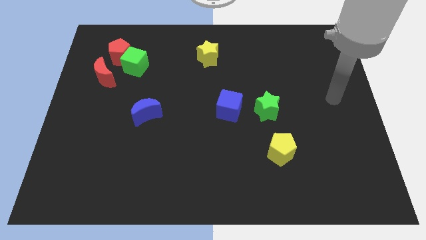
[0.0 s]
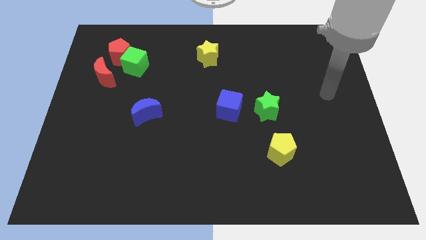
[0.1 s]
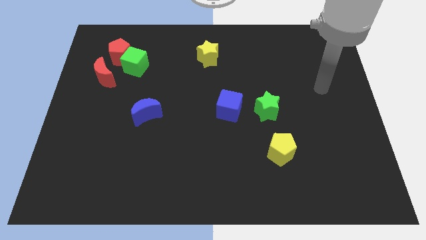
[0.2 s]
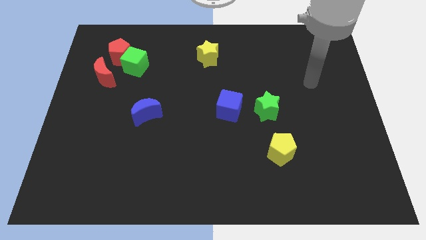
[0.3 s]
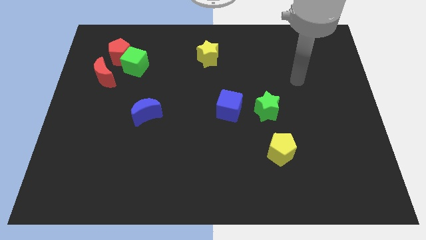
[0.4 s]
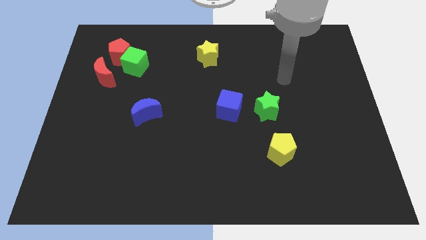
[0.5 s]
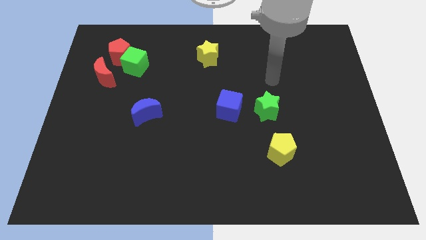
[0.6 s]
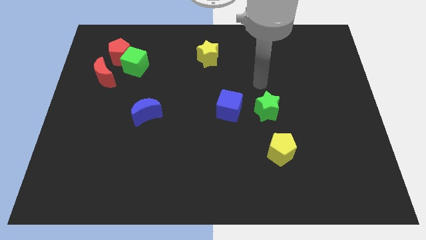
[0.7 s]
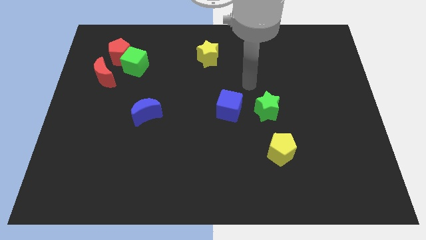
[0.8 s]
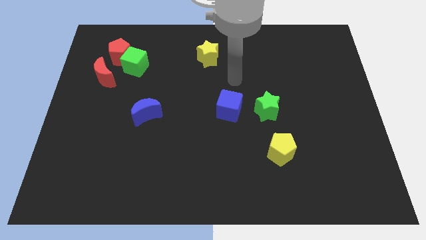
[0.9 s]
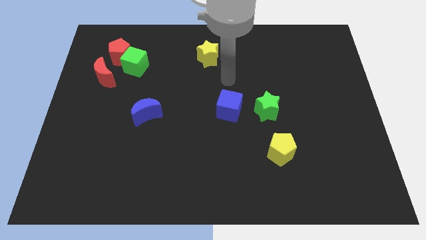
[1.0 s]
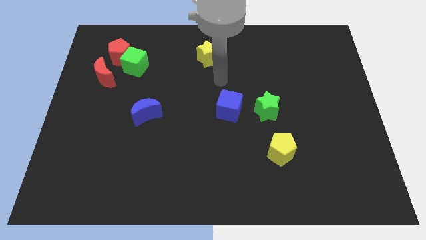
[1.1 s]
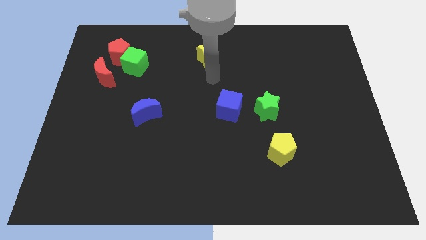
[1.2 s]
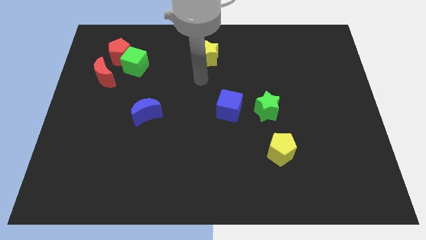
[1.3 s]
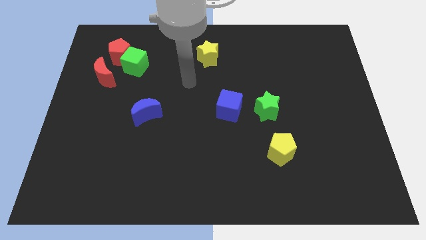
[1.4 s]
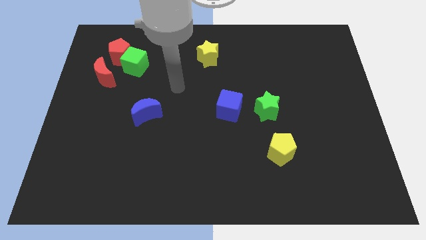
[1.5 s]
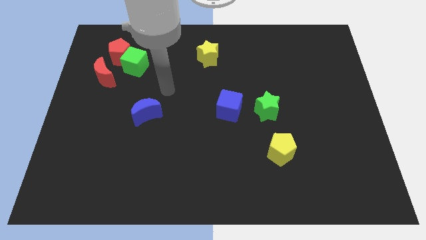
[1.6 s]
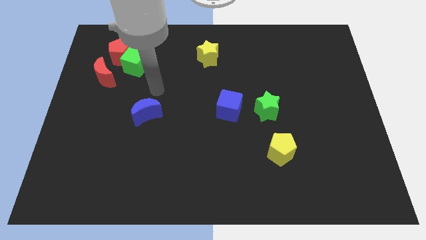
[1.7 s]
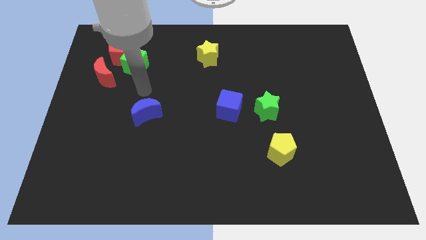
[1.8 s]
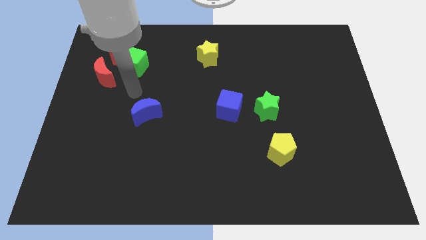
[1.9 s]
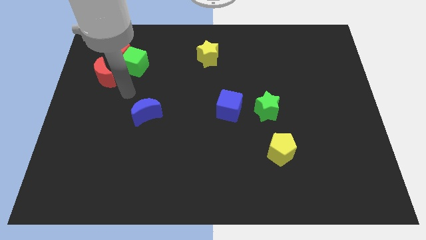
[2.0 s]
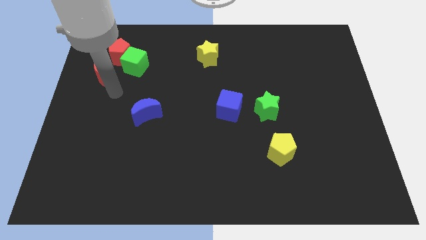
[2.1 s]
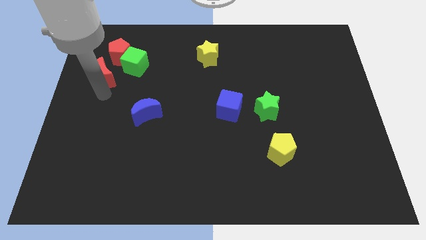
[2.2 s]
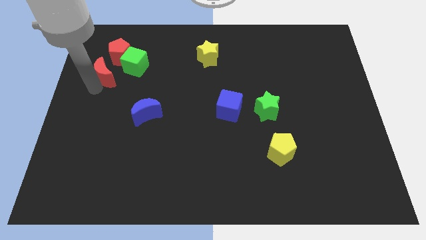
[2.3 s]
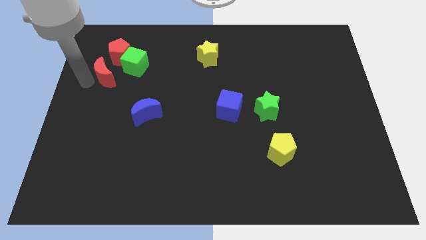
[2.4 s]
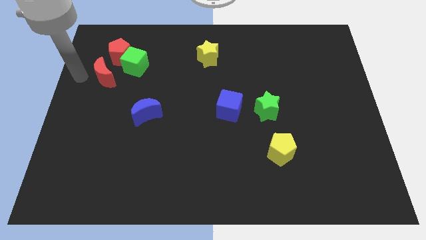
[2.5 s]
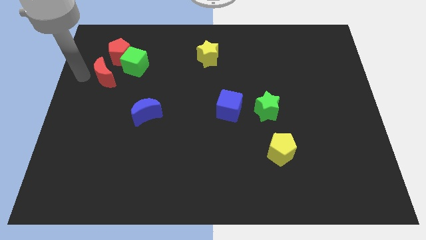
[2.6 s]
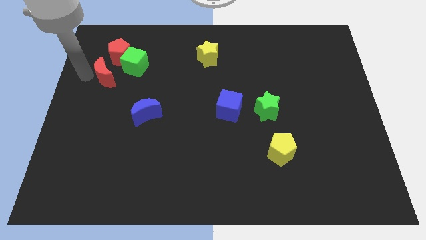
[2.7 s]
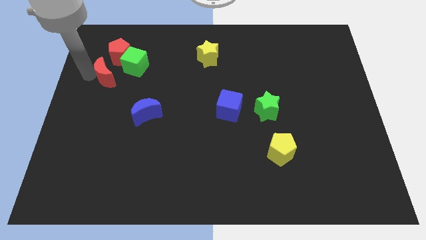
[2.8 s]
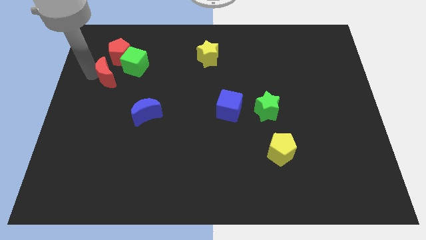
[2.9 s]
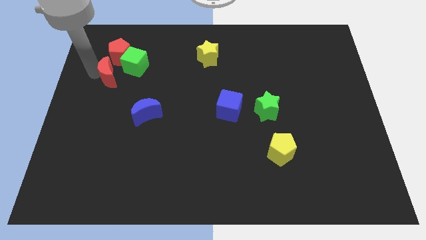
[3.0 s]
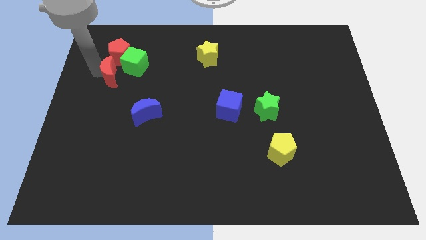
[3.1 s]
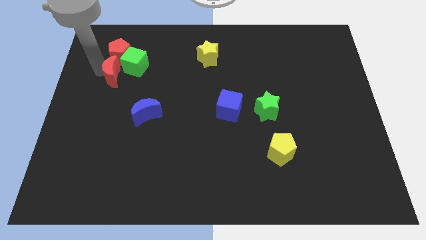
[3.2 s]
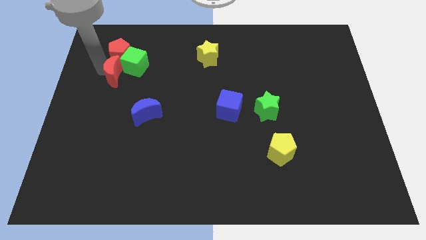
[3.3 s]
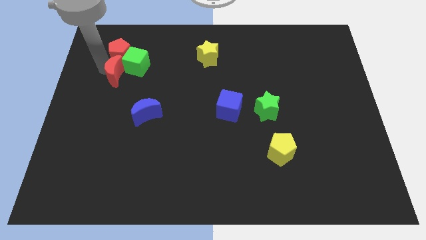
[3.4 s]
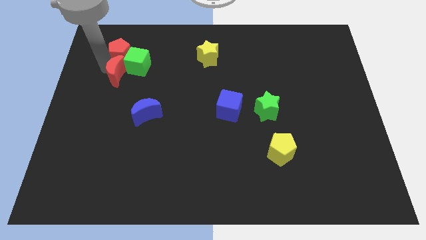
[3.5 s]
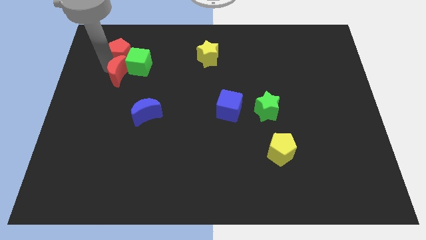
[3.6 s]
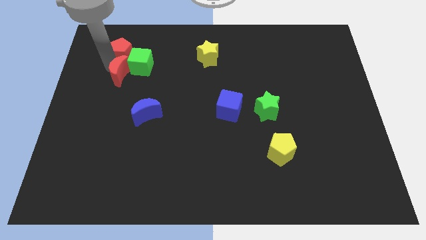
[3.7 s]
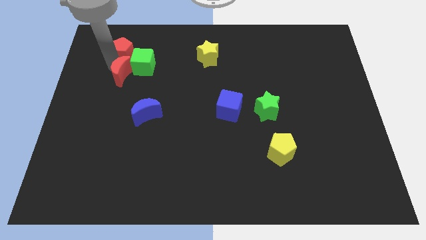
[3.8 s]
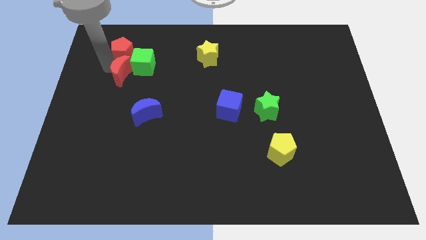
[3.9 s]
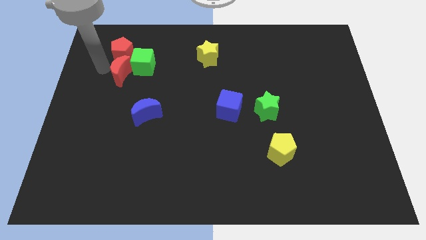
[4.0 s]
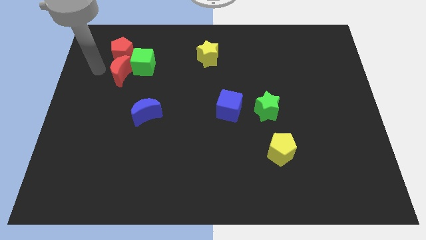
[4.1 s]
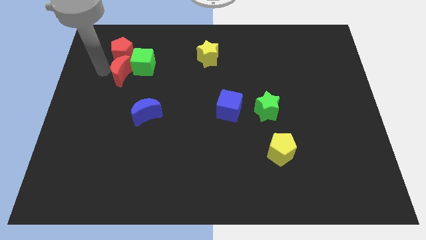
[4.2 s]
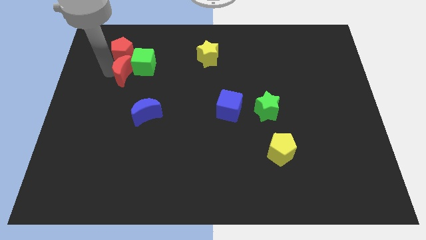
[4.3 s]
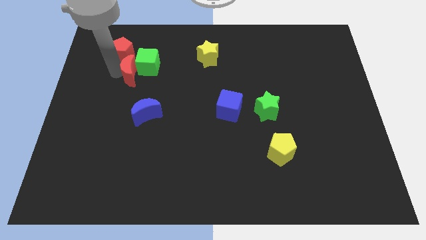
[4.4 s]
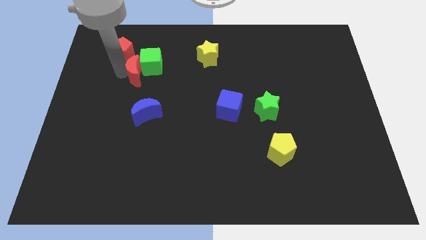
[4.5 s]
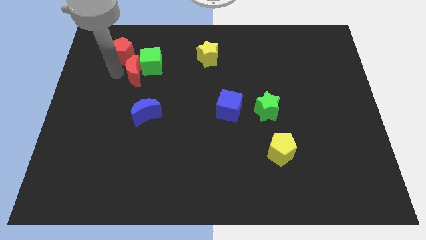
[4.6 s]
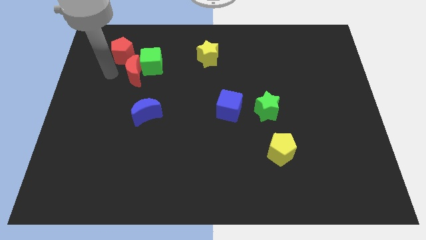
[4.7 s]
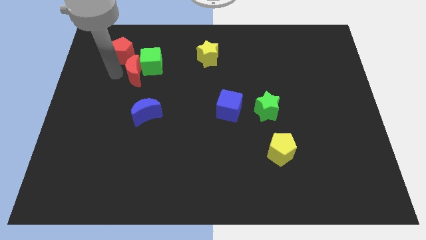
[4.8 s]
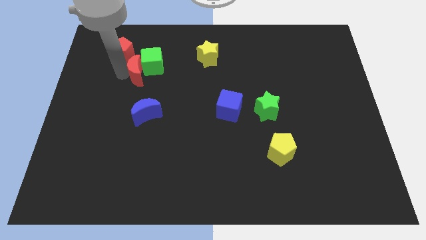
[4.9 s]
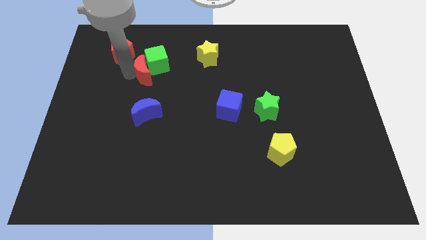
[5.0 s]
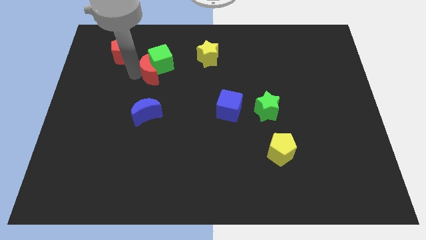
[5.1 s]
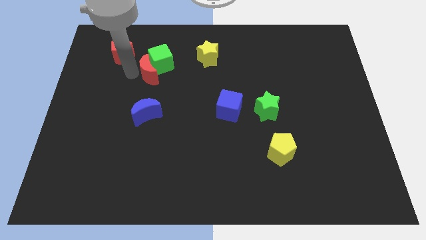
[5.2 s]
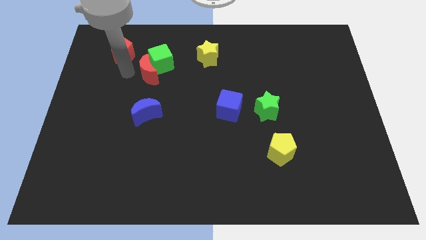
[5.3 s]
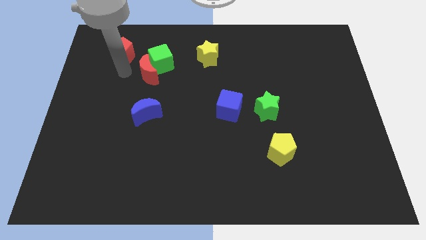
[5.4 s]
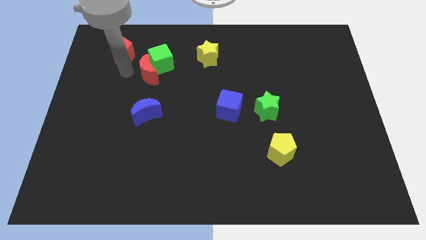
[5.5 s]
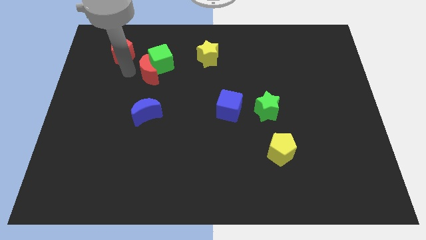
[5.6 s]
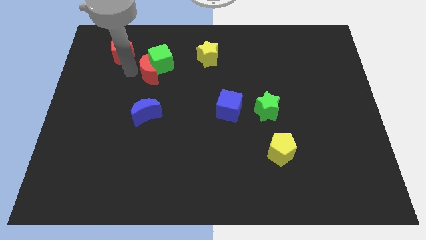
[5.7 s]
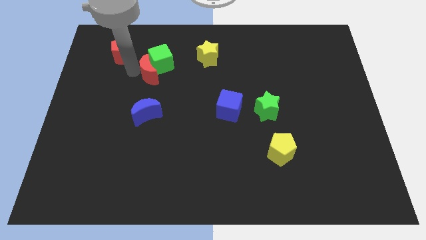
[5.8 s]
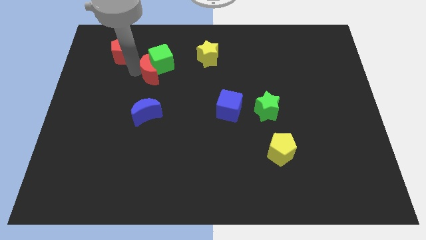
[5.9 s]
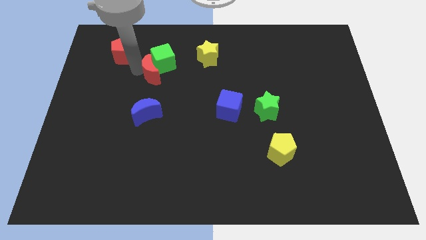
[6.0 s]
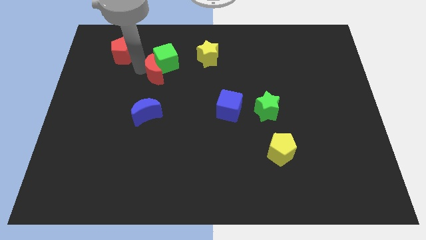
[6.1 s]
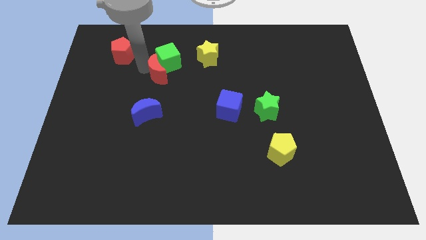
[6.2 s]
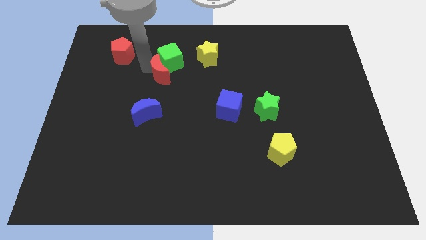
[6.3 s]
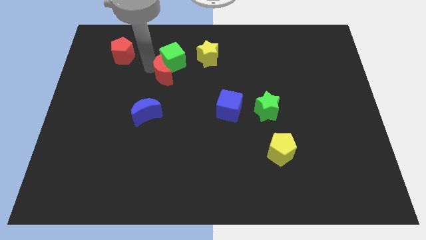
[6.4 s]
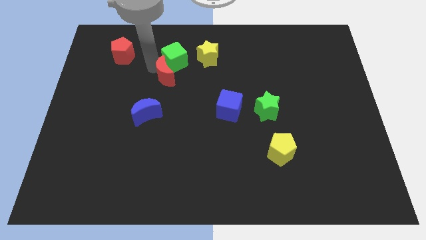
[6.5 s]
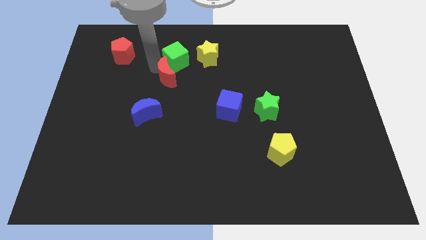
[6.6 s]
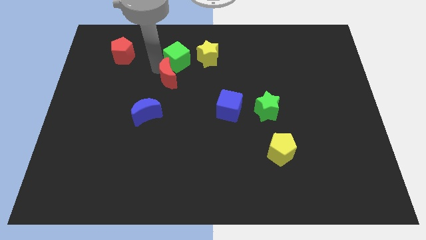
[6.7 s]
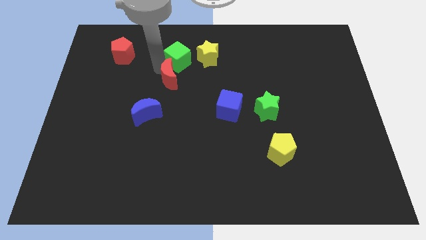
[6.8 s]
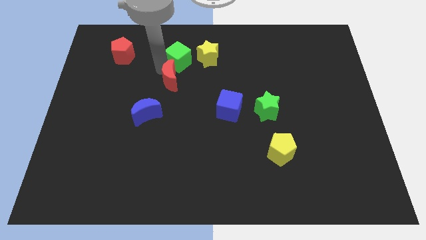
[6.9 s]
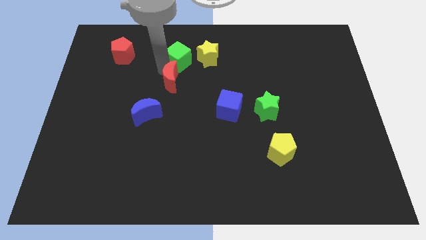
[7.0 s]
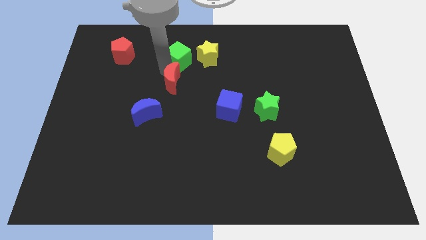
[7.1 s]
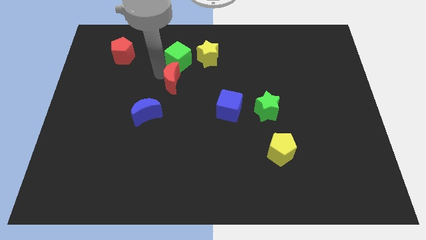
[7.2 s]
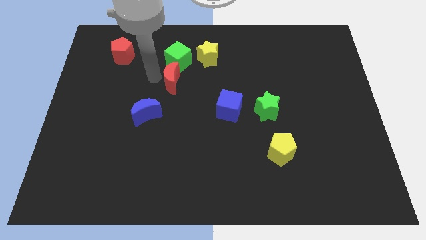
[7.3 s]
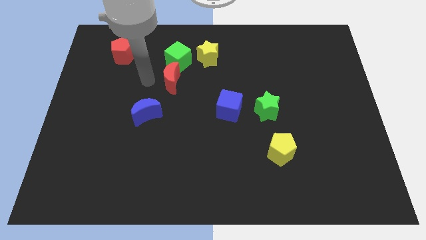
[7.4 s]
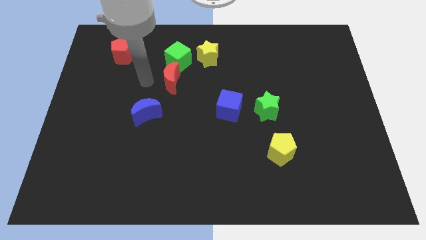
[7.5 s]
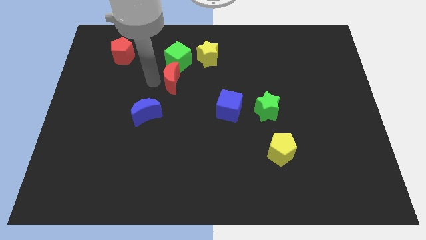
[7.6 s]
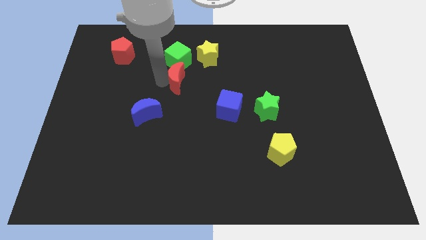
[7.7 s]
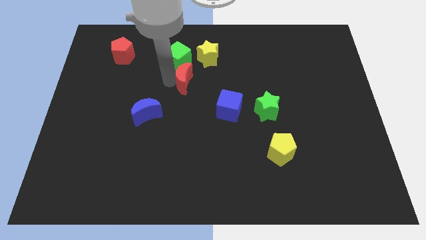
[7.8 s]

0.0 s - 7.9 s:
slide the red moon to the right

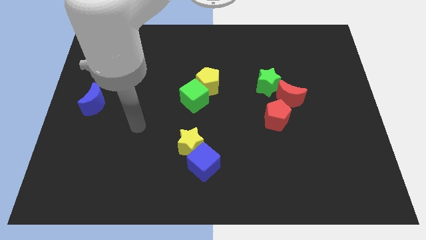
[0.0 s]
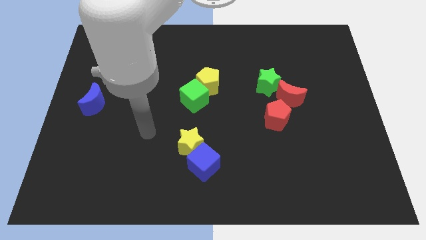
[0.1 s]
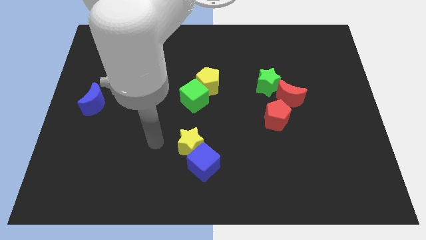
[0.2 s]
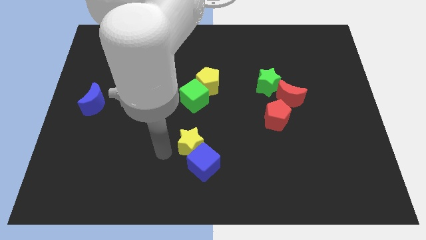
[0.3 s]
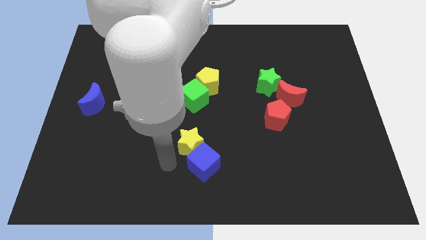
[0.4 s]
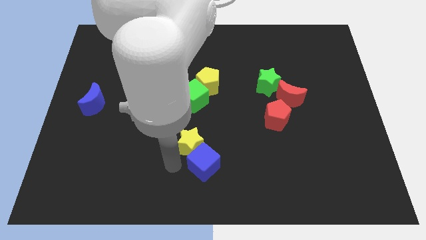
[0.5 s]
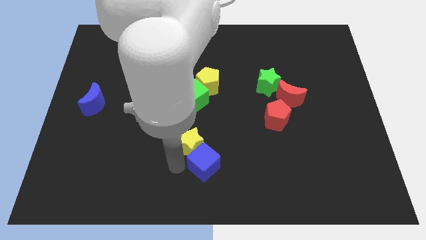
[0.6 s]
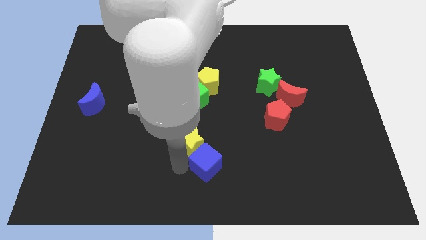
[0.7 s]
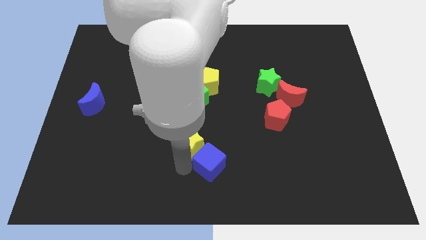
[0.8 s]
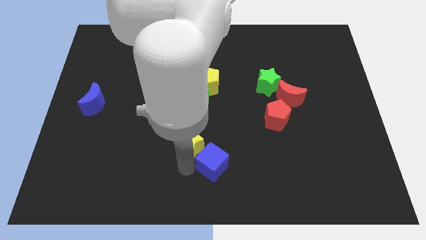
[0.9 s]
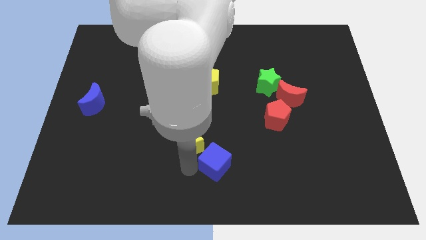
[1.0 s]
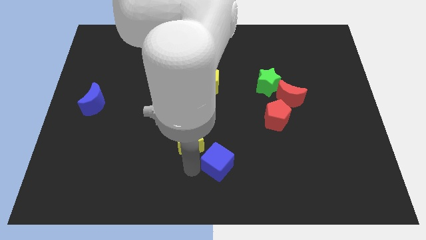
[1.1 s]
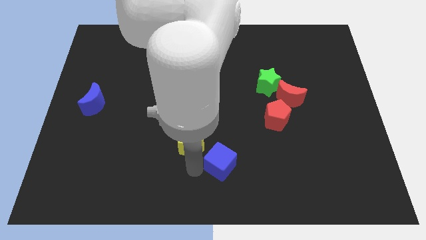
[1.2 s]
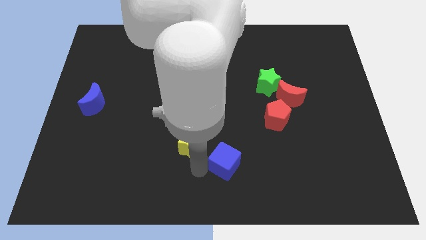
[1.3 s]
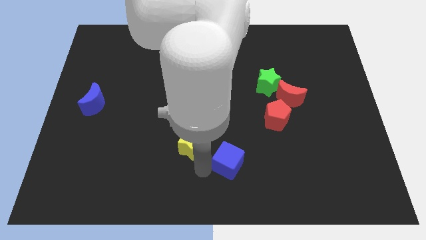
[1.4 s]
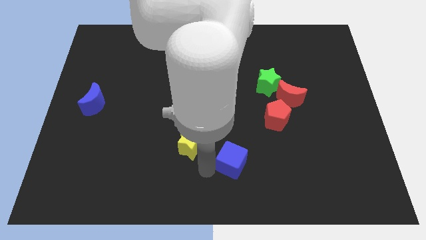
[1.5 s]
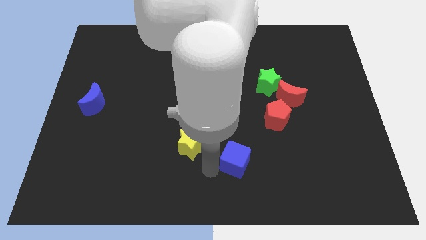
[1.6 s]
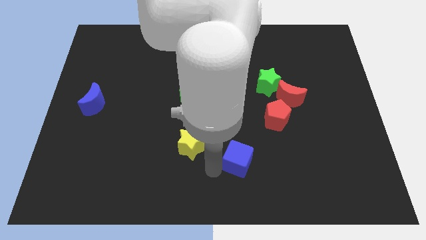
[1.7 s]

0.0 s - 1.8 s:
slightly push the blue cube right
